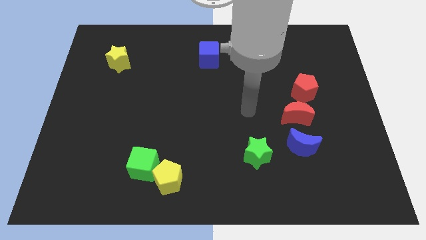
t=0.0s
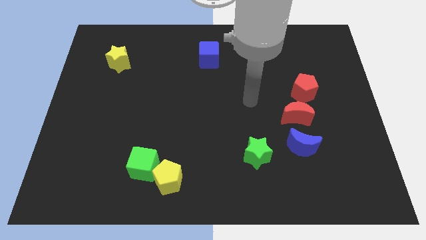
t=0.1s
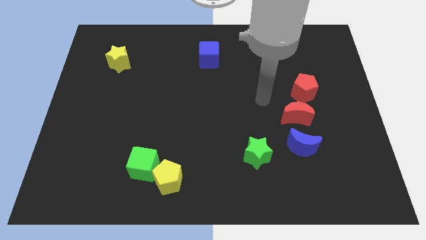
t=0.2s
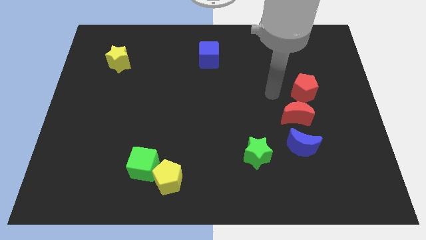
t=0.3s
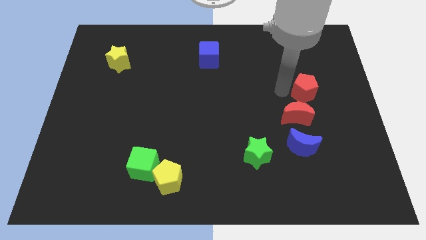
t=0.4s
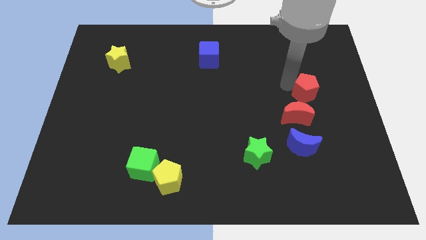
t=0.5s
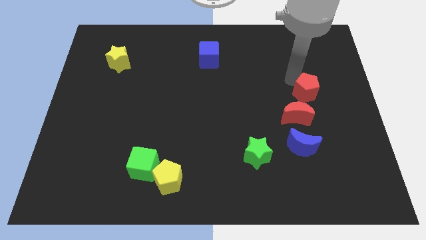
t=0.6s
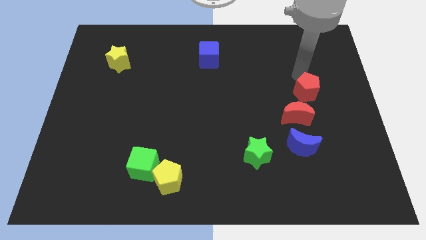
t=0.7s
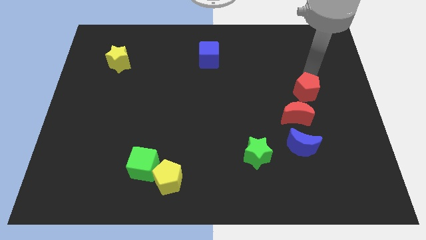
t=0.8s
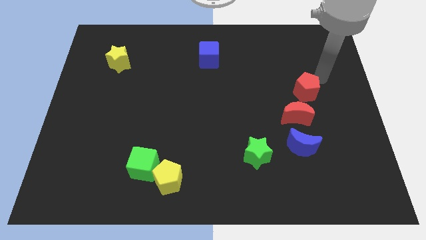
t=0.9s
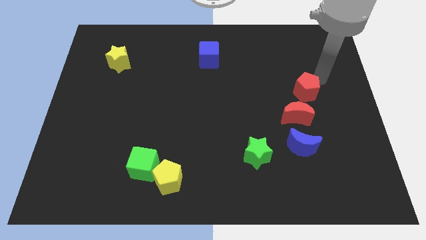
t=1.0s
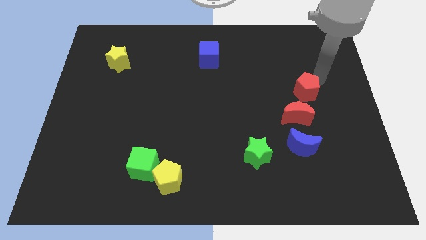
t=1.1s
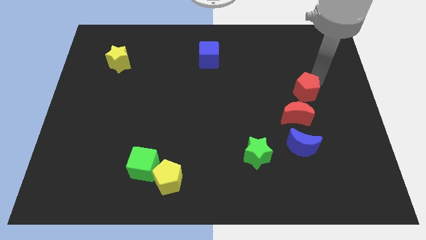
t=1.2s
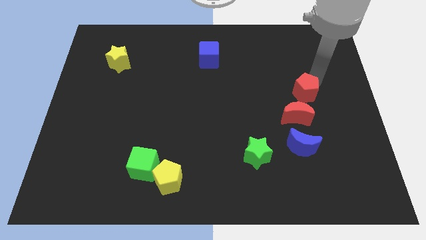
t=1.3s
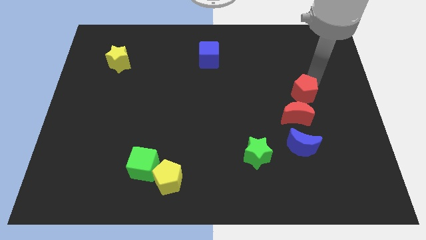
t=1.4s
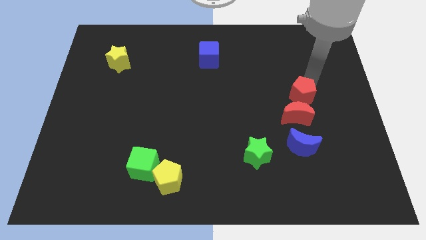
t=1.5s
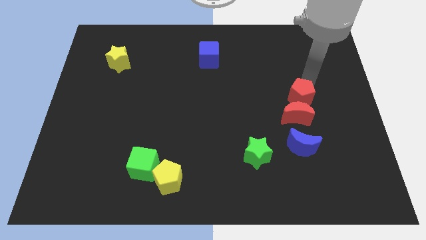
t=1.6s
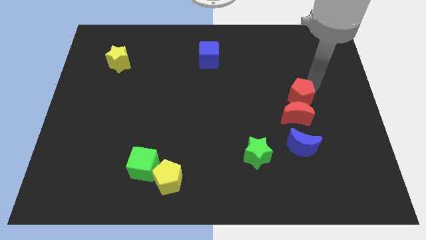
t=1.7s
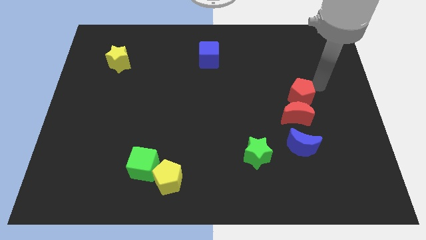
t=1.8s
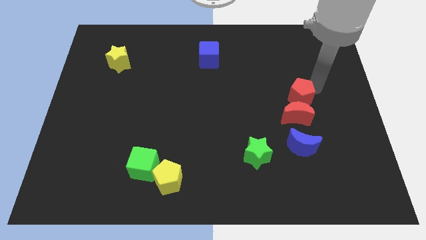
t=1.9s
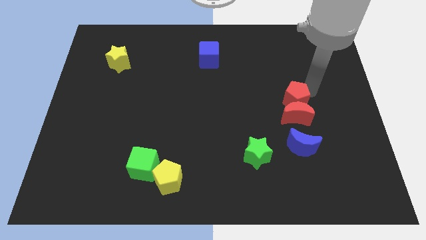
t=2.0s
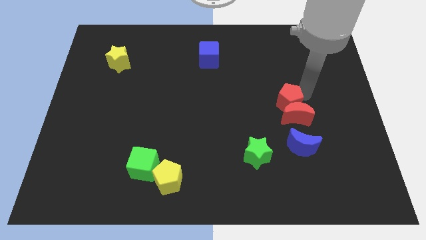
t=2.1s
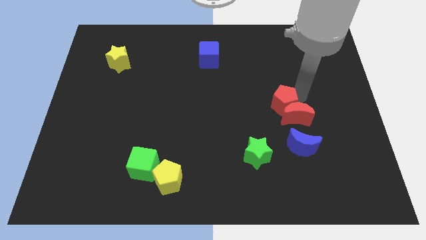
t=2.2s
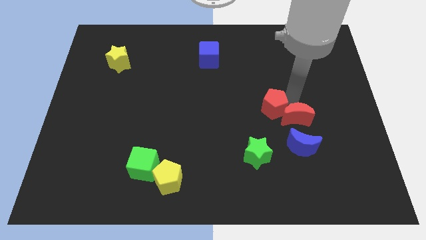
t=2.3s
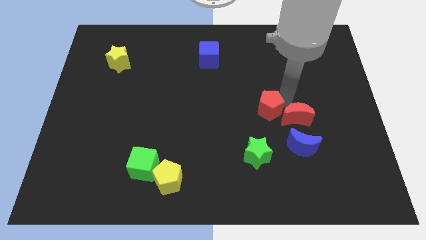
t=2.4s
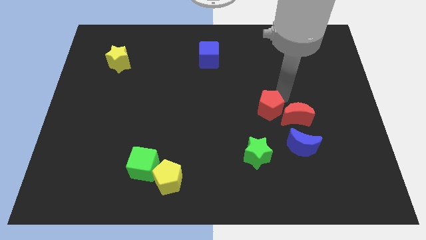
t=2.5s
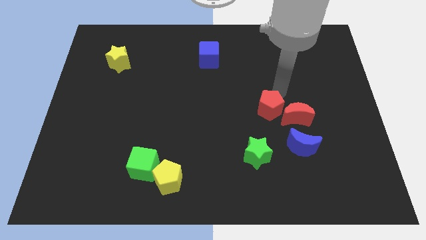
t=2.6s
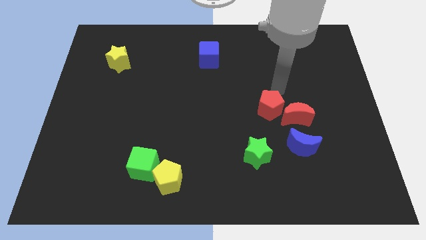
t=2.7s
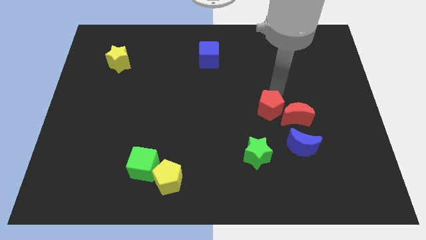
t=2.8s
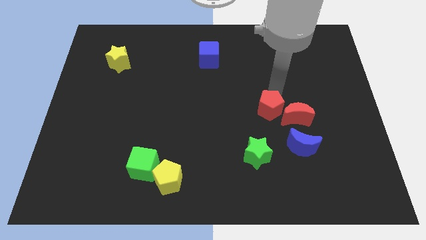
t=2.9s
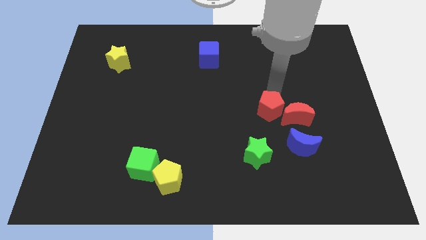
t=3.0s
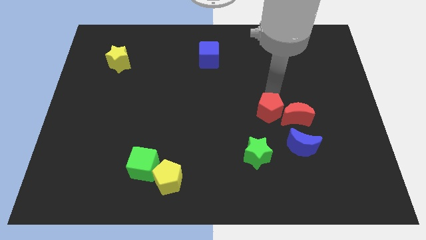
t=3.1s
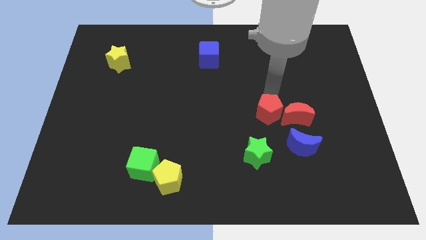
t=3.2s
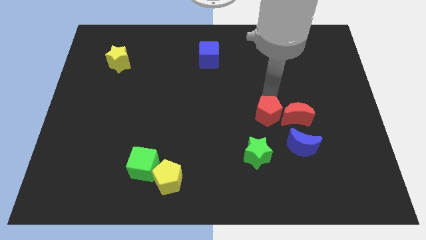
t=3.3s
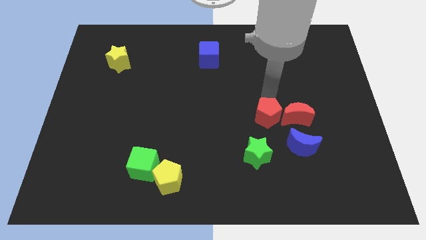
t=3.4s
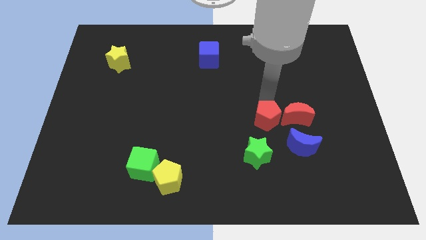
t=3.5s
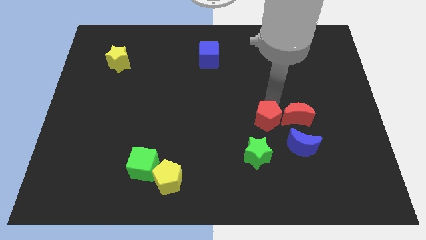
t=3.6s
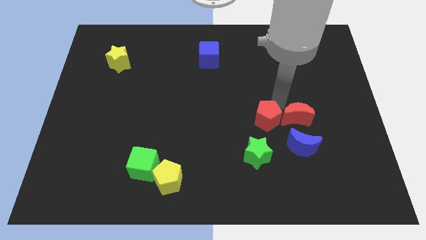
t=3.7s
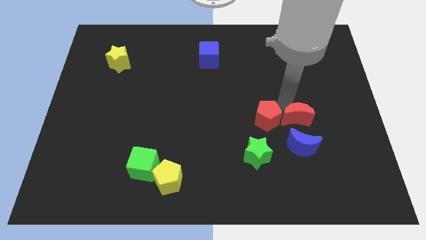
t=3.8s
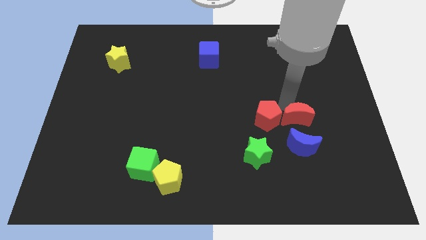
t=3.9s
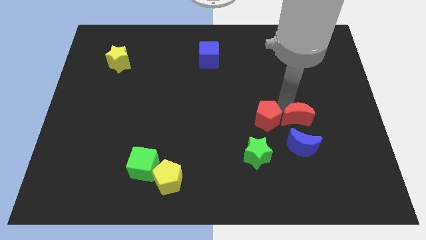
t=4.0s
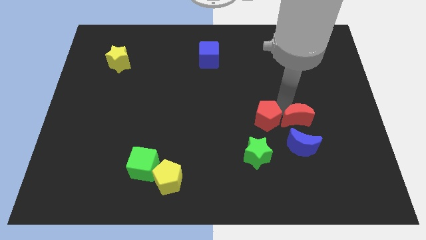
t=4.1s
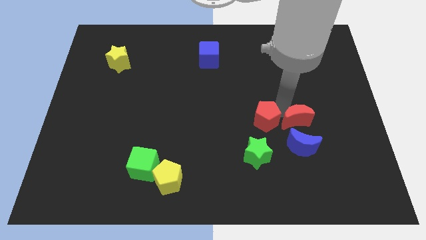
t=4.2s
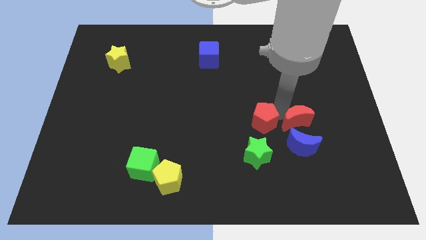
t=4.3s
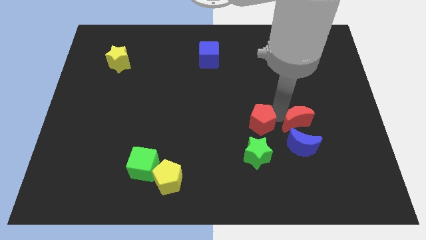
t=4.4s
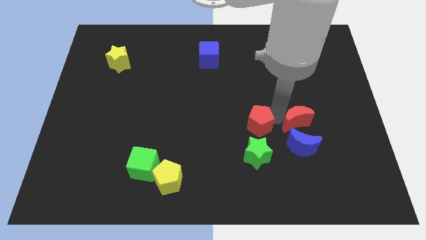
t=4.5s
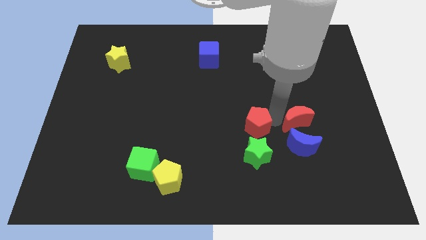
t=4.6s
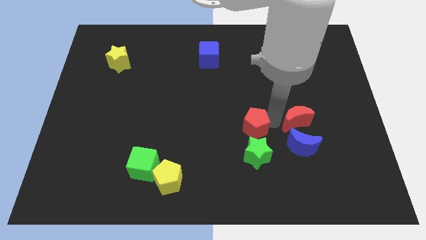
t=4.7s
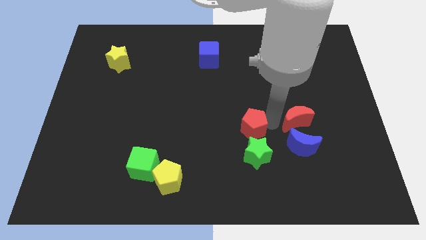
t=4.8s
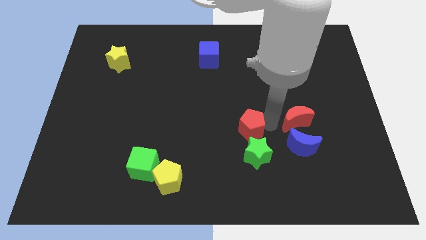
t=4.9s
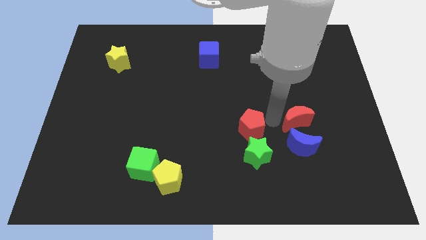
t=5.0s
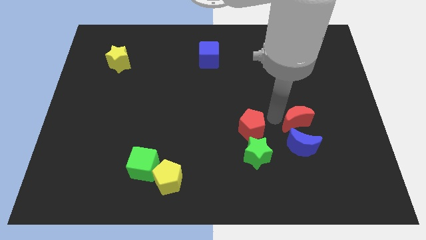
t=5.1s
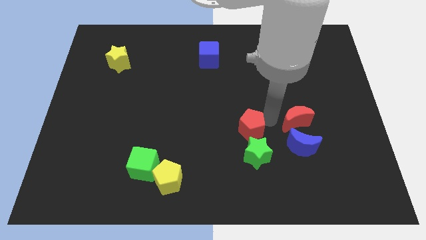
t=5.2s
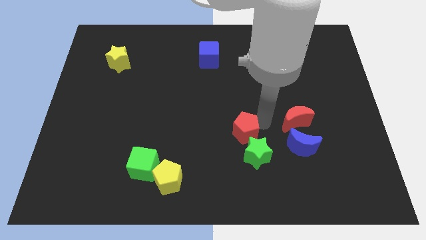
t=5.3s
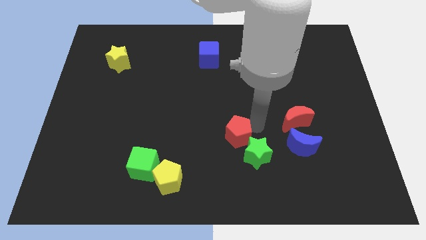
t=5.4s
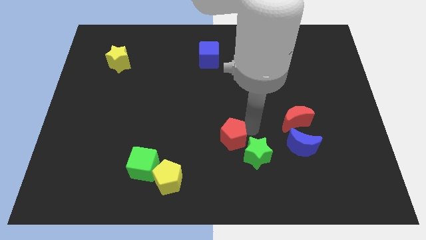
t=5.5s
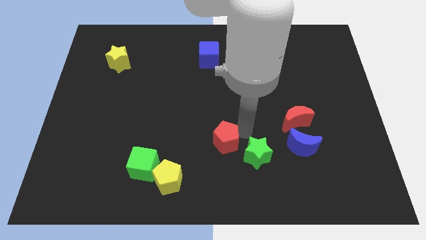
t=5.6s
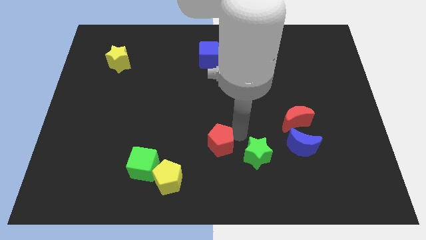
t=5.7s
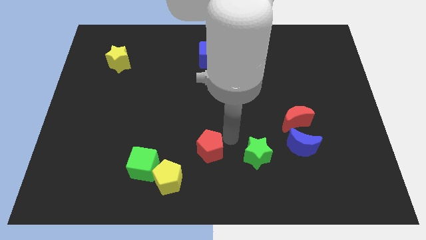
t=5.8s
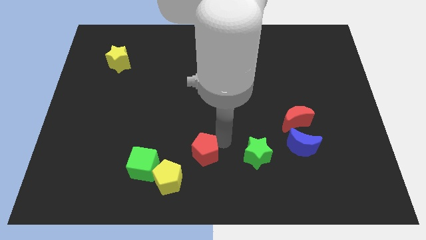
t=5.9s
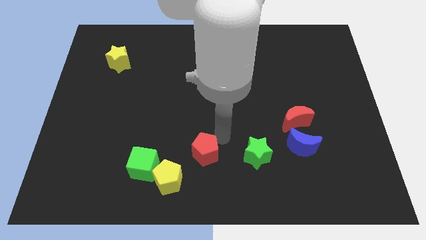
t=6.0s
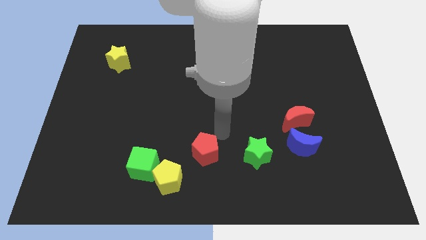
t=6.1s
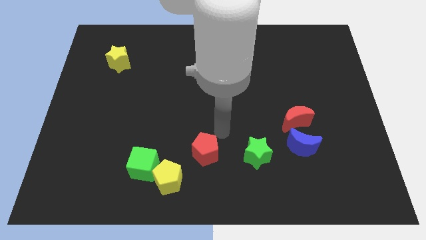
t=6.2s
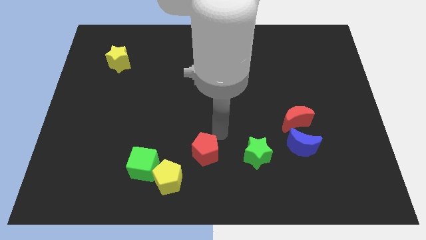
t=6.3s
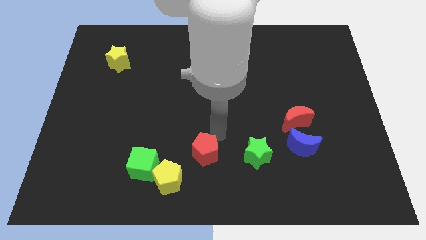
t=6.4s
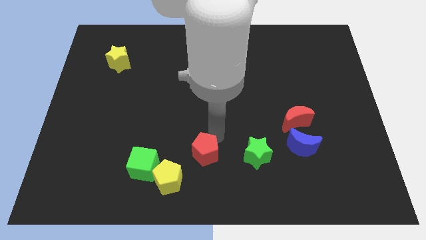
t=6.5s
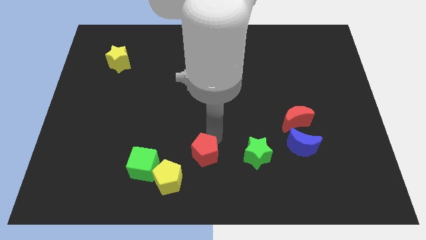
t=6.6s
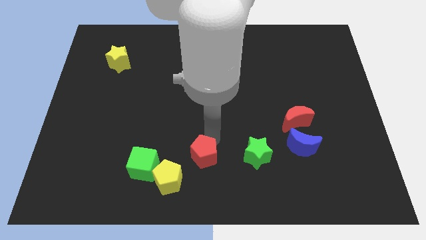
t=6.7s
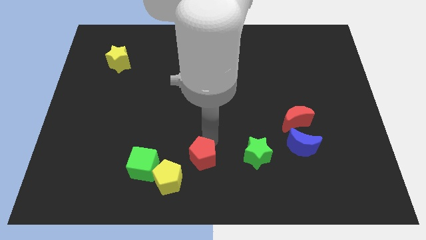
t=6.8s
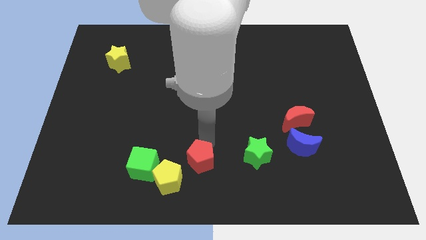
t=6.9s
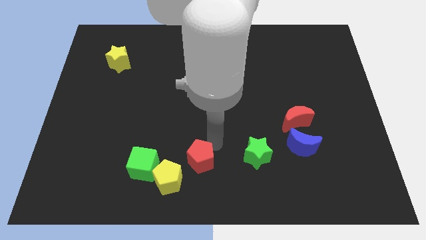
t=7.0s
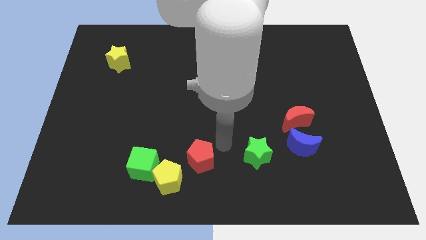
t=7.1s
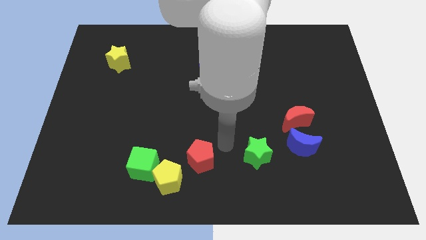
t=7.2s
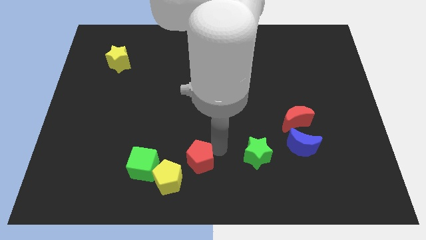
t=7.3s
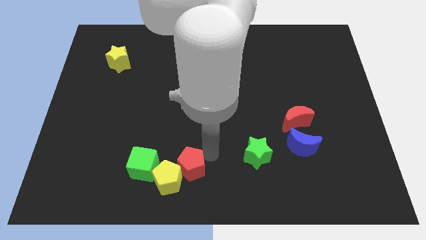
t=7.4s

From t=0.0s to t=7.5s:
put the red pentagon close to the yellow pentagon
